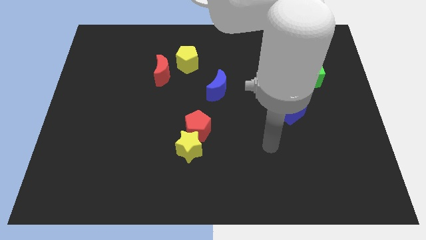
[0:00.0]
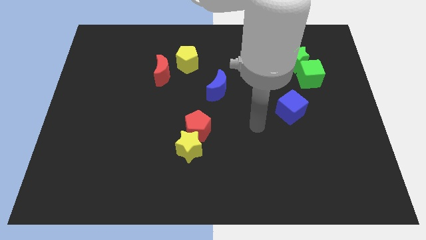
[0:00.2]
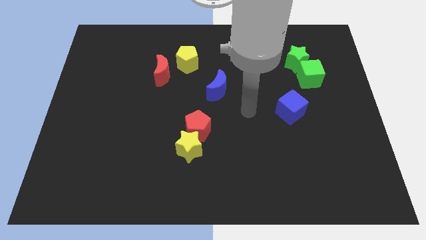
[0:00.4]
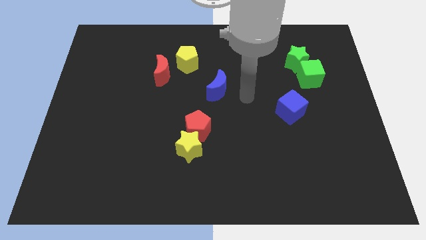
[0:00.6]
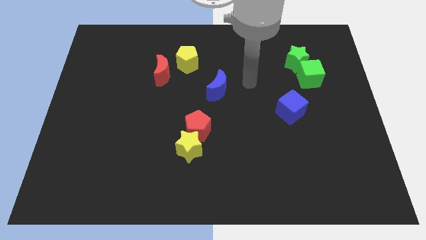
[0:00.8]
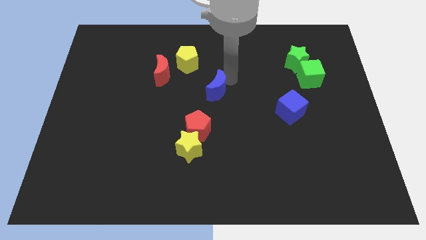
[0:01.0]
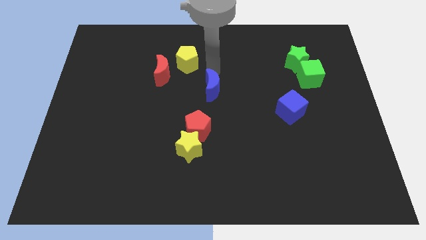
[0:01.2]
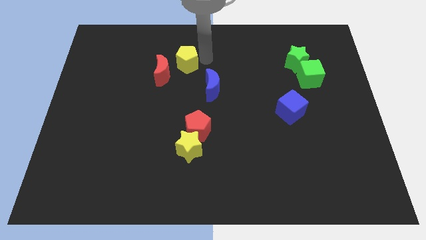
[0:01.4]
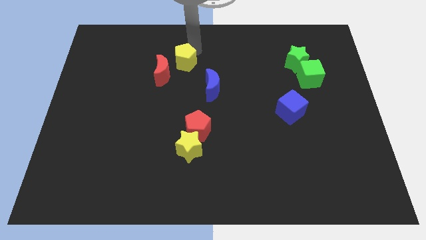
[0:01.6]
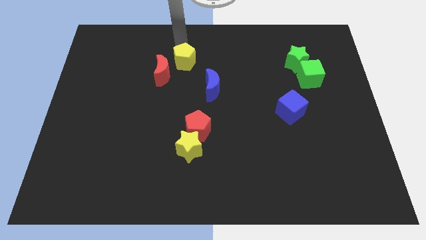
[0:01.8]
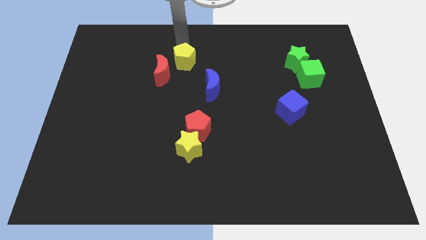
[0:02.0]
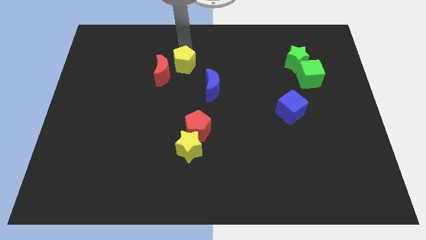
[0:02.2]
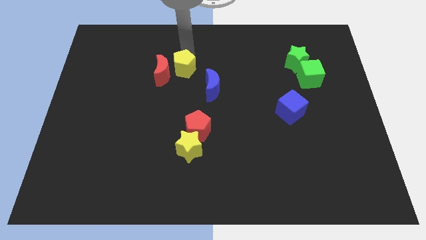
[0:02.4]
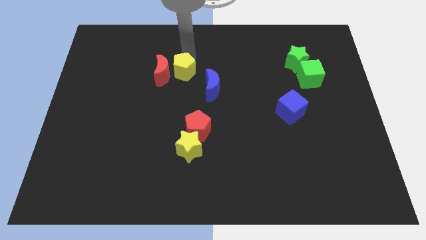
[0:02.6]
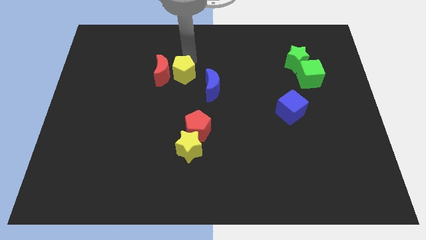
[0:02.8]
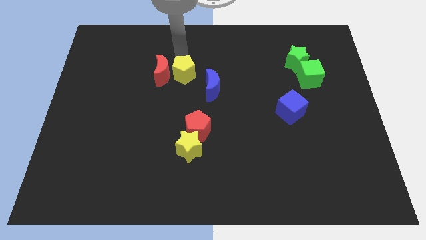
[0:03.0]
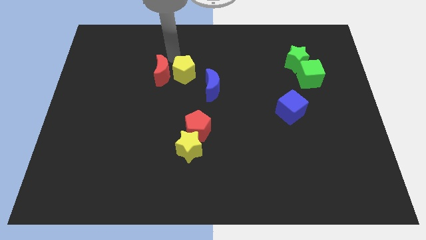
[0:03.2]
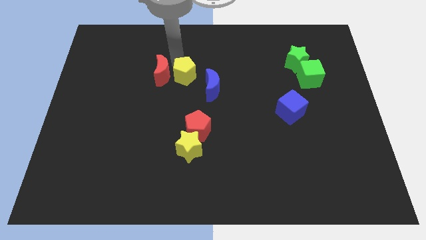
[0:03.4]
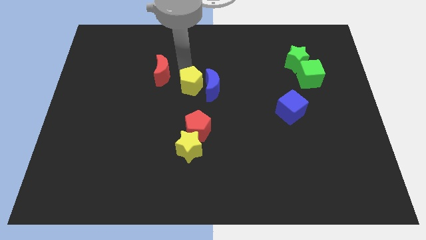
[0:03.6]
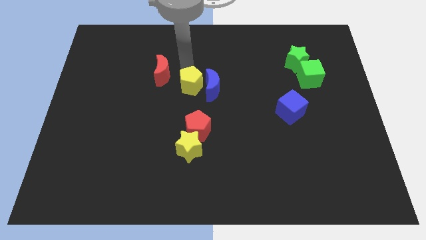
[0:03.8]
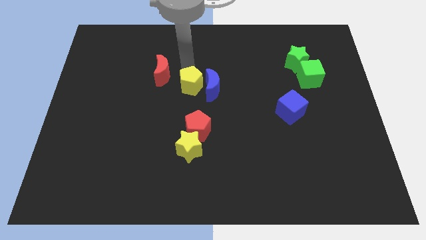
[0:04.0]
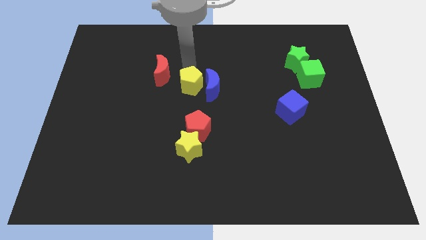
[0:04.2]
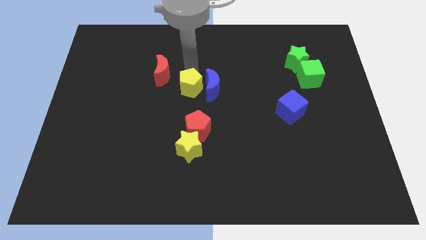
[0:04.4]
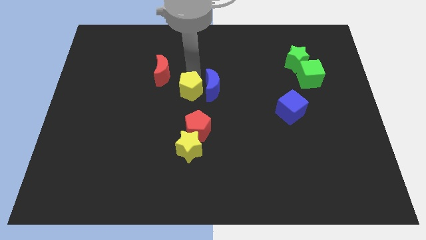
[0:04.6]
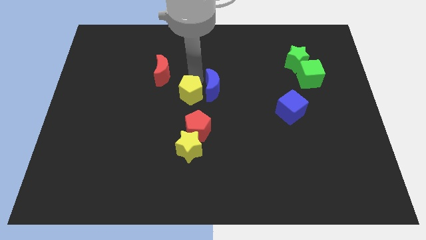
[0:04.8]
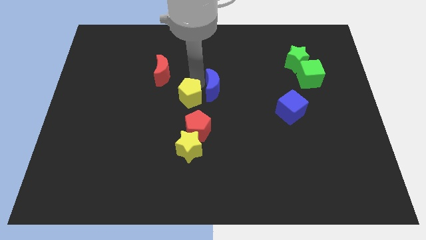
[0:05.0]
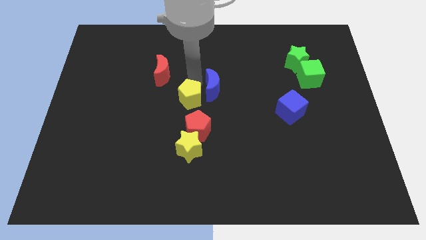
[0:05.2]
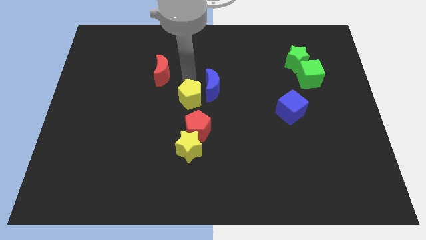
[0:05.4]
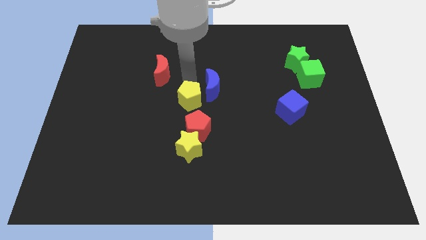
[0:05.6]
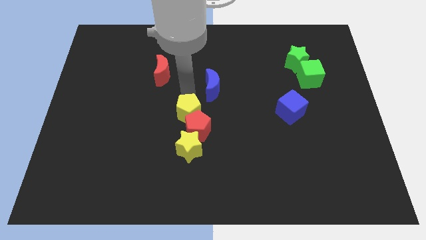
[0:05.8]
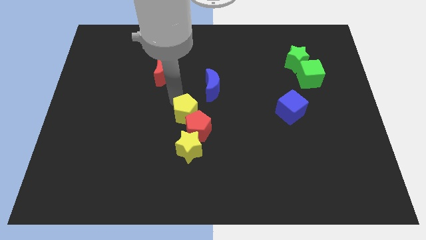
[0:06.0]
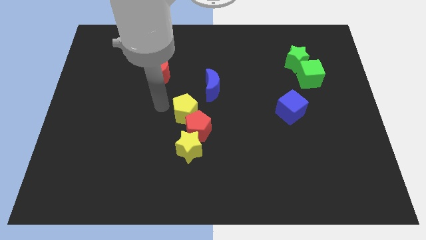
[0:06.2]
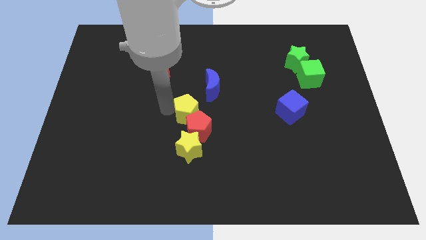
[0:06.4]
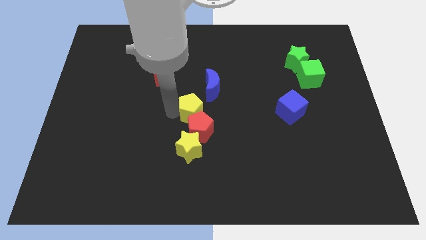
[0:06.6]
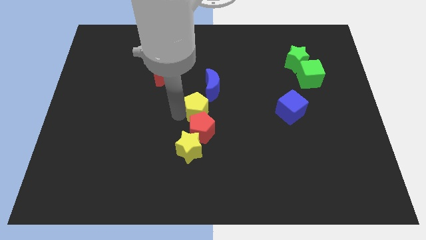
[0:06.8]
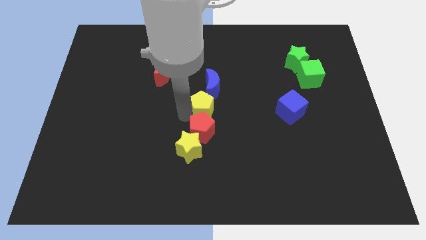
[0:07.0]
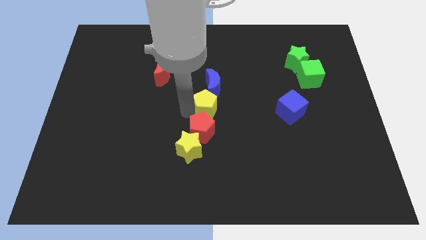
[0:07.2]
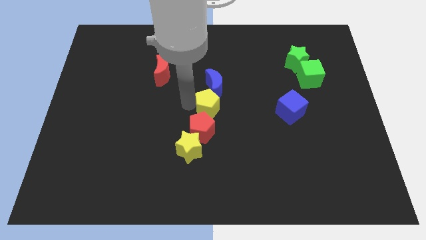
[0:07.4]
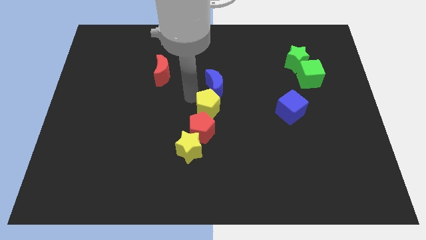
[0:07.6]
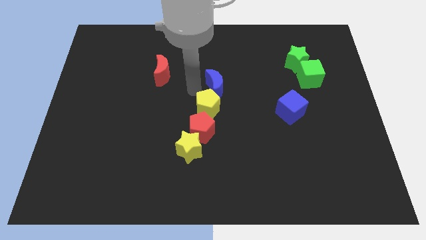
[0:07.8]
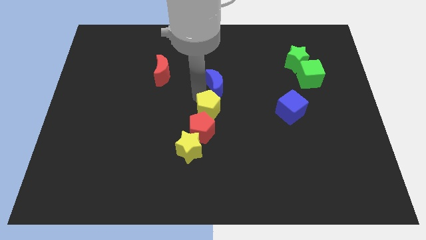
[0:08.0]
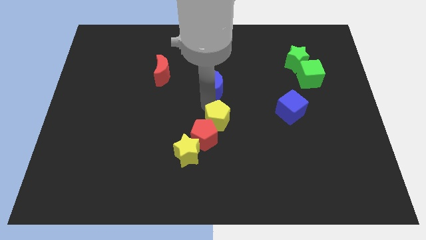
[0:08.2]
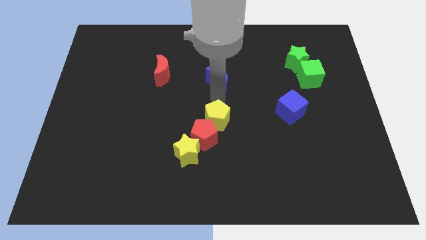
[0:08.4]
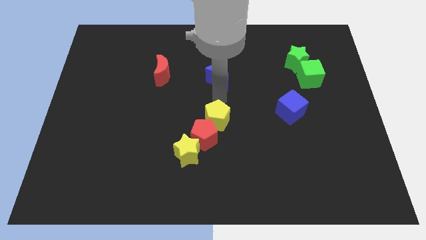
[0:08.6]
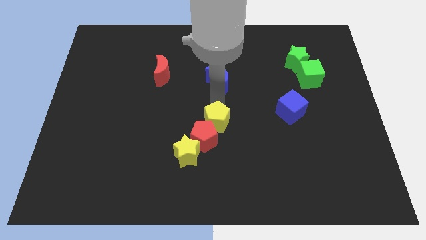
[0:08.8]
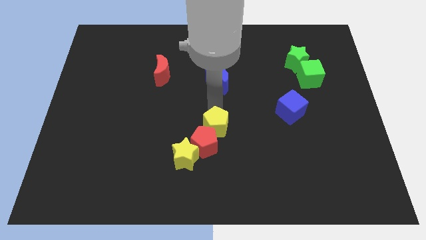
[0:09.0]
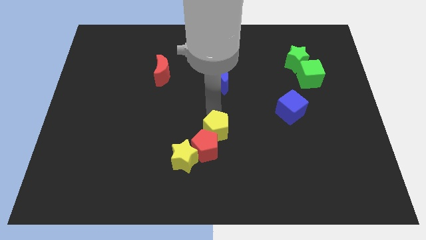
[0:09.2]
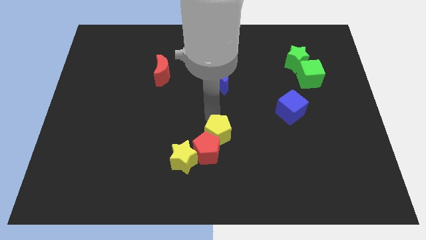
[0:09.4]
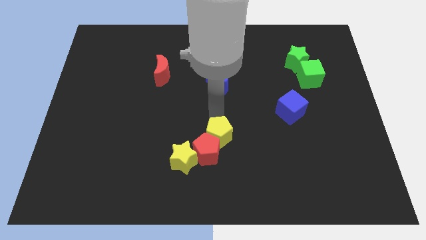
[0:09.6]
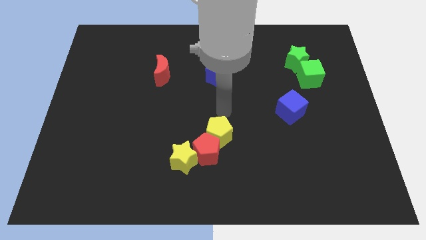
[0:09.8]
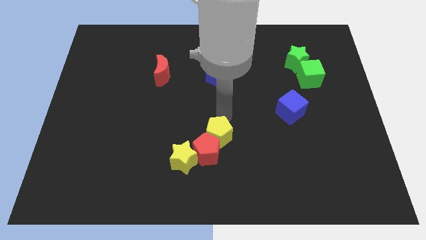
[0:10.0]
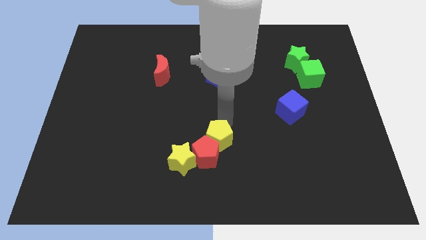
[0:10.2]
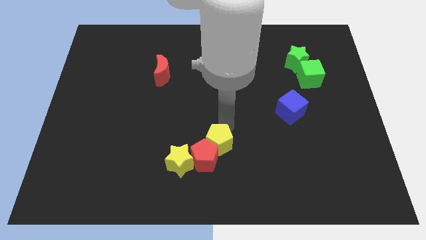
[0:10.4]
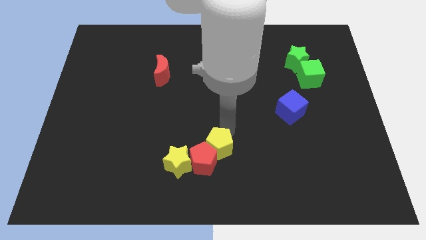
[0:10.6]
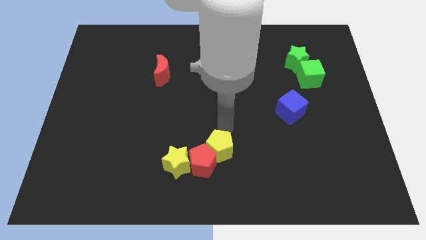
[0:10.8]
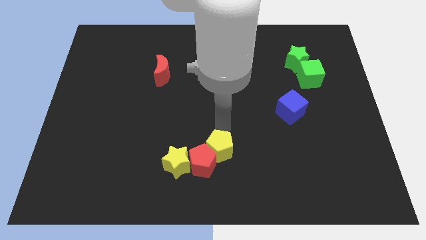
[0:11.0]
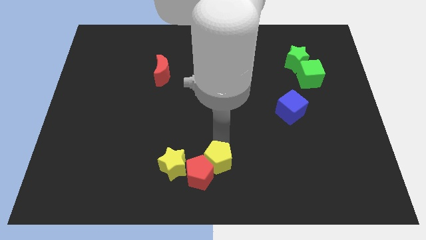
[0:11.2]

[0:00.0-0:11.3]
push the yellow pentagon to the bottom side
